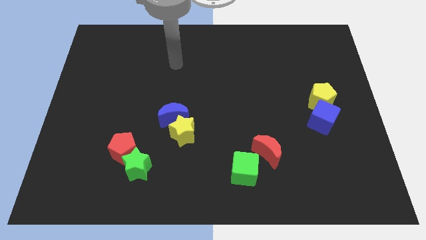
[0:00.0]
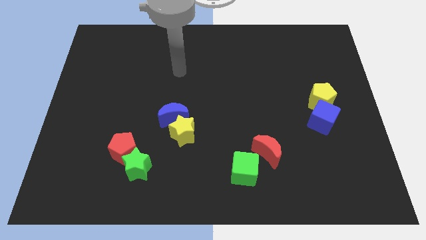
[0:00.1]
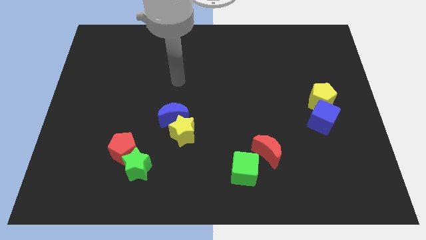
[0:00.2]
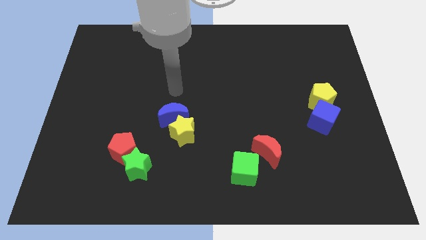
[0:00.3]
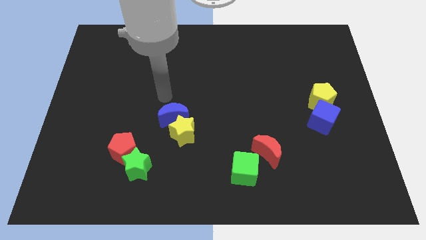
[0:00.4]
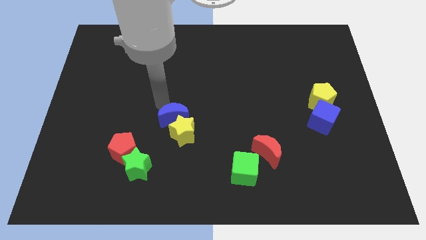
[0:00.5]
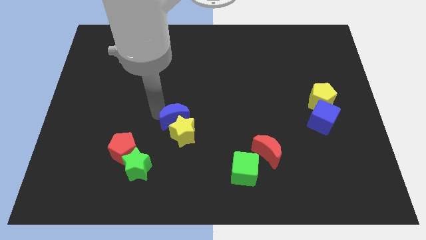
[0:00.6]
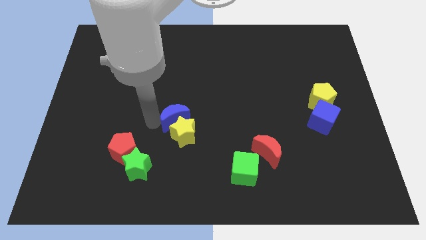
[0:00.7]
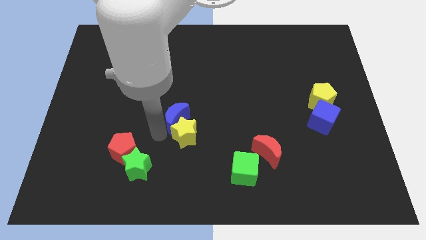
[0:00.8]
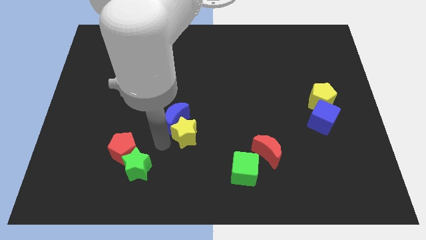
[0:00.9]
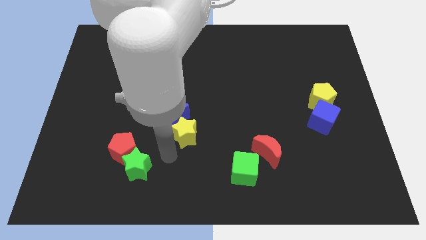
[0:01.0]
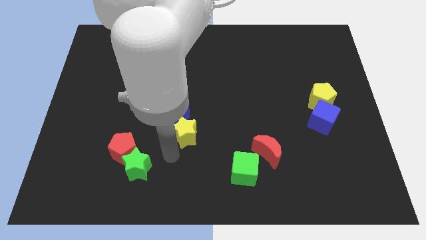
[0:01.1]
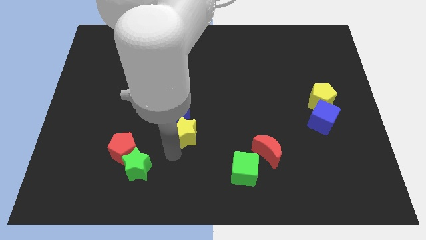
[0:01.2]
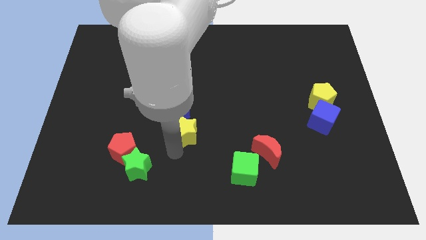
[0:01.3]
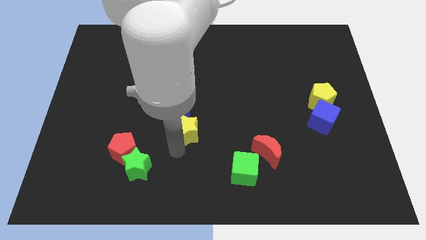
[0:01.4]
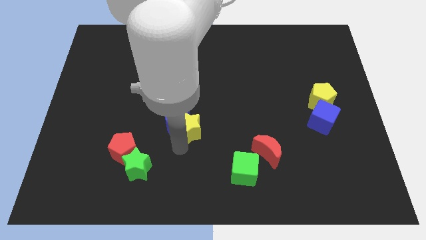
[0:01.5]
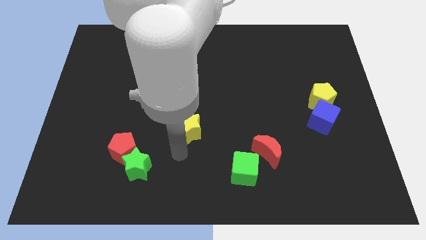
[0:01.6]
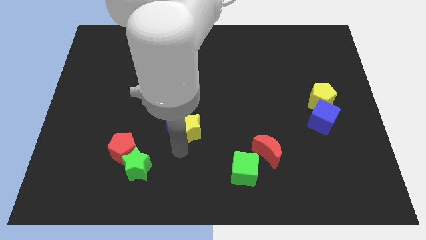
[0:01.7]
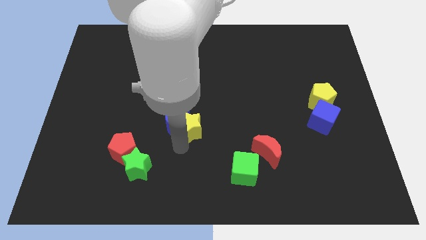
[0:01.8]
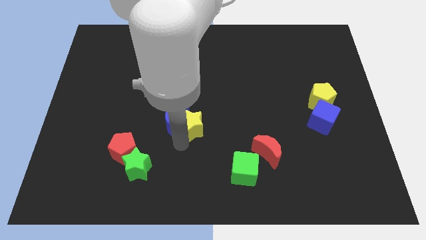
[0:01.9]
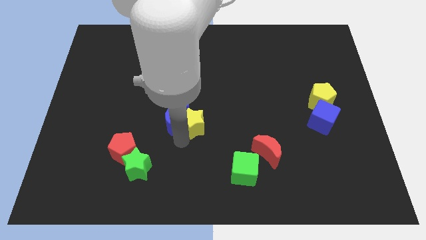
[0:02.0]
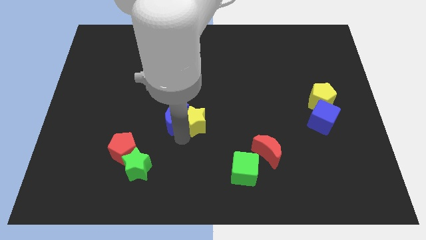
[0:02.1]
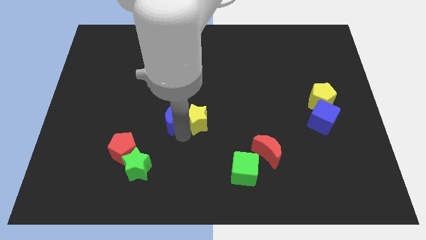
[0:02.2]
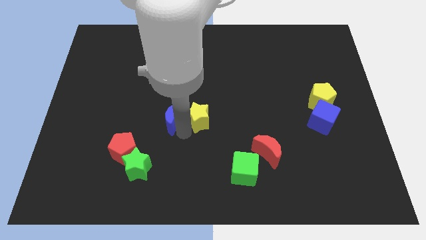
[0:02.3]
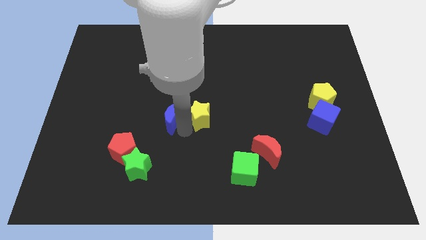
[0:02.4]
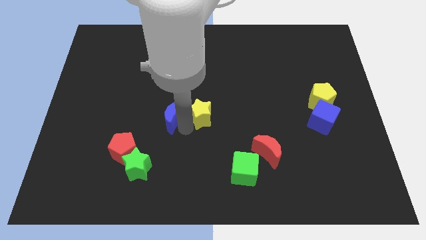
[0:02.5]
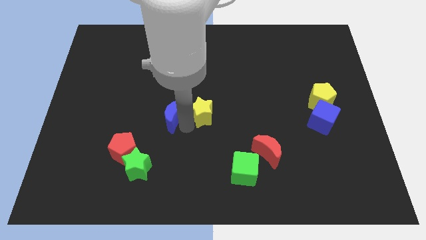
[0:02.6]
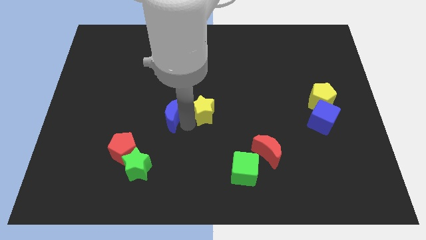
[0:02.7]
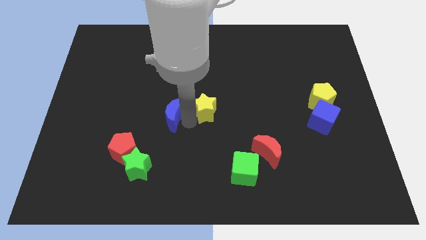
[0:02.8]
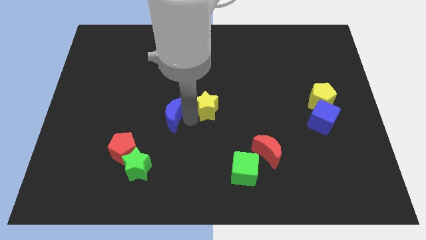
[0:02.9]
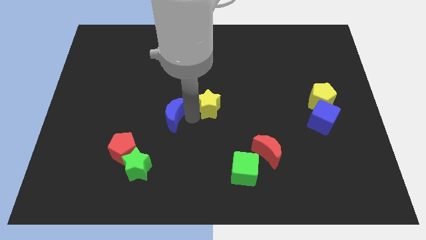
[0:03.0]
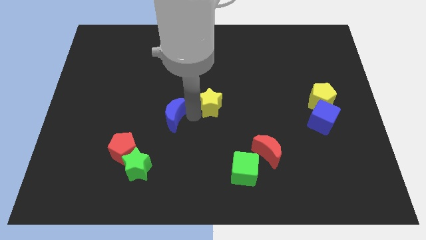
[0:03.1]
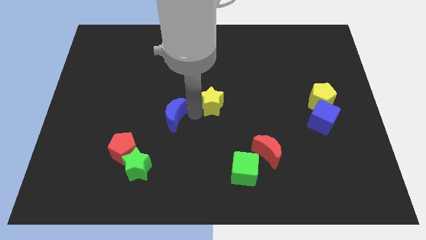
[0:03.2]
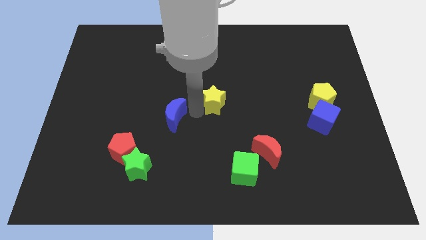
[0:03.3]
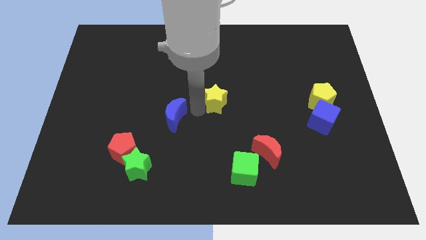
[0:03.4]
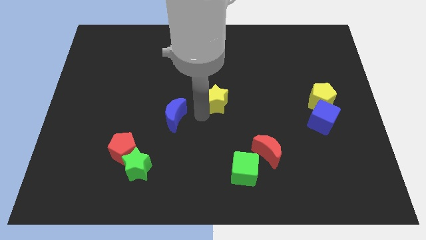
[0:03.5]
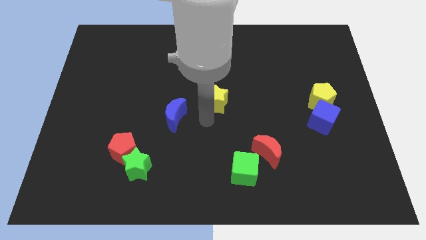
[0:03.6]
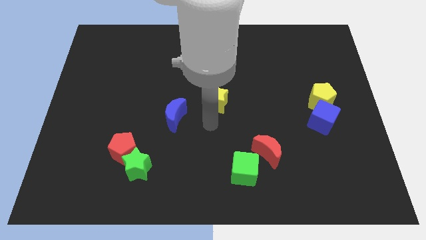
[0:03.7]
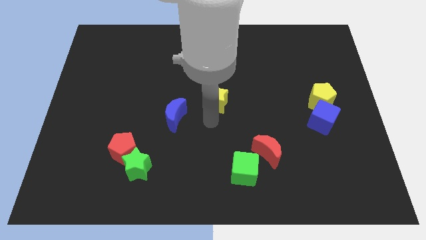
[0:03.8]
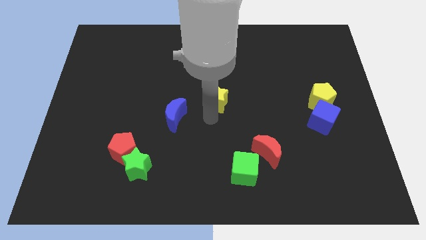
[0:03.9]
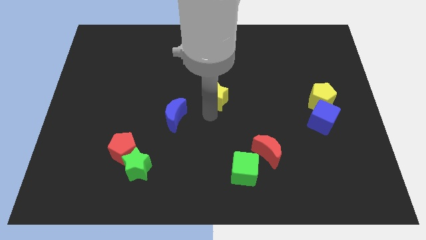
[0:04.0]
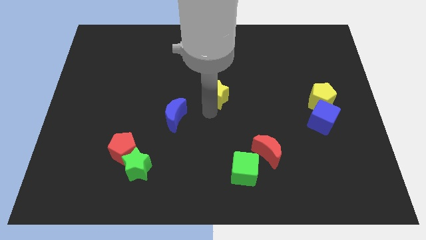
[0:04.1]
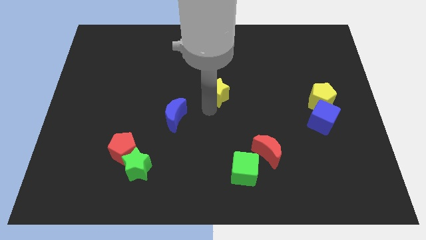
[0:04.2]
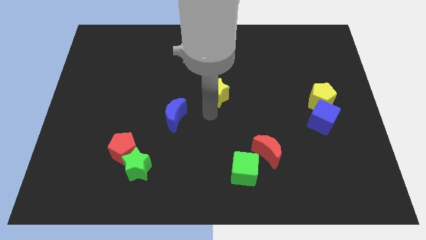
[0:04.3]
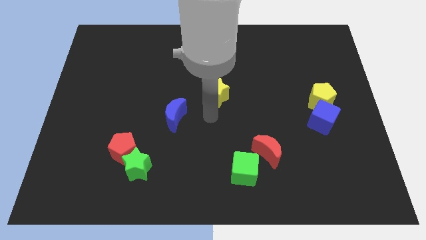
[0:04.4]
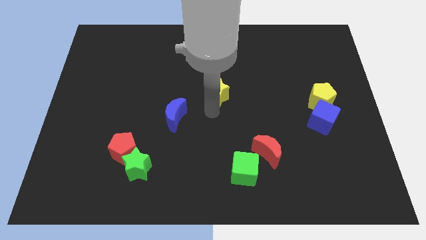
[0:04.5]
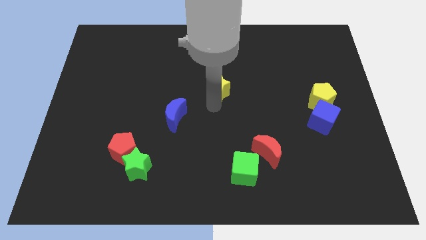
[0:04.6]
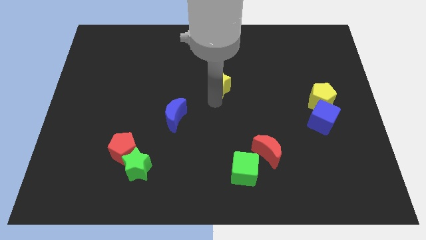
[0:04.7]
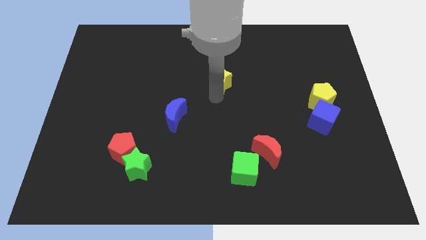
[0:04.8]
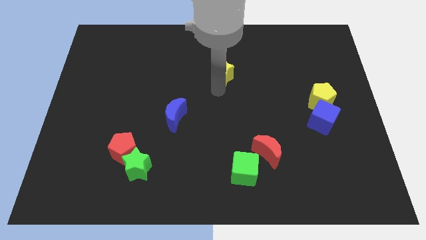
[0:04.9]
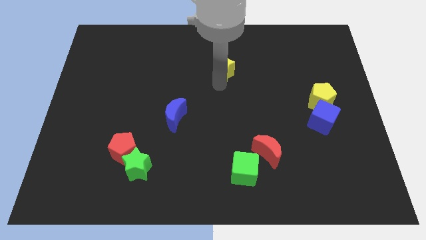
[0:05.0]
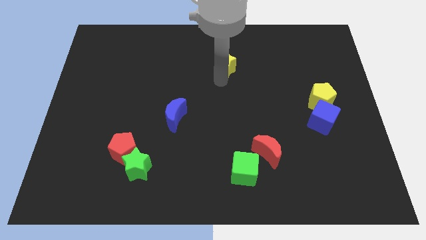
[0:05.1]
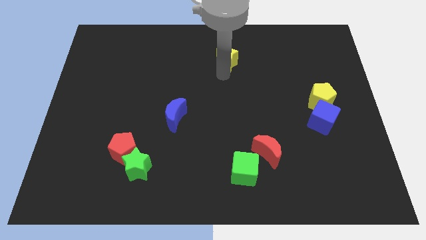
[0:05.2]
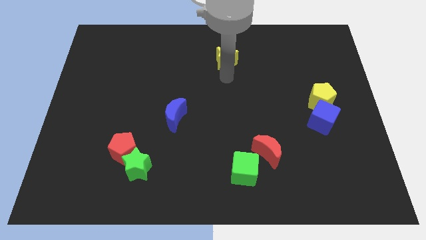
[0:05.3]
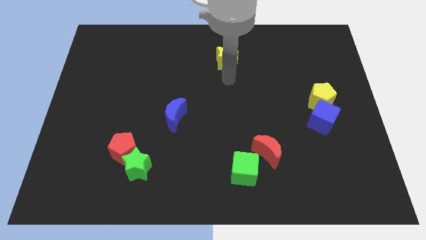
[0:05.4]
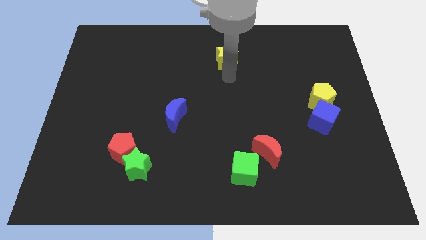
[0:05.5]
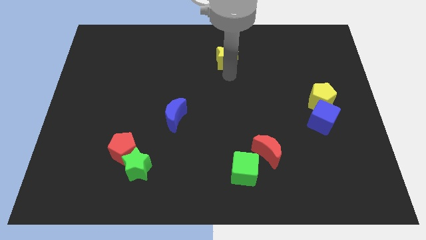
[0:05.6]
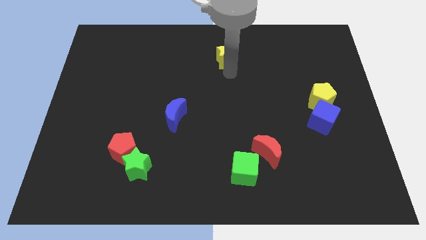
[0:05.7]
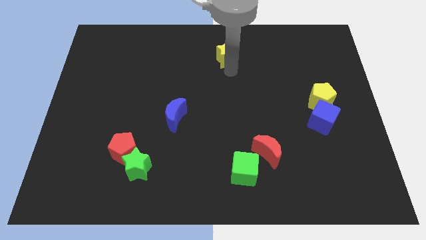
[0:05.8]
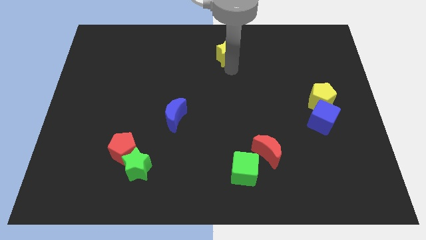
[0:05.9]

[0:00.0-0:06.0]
slide the yellow star to the top

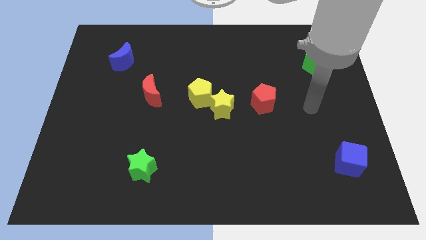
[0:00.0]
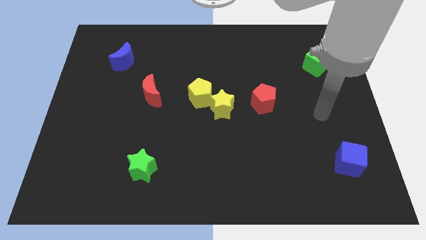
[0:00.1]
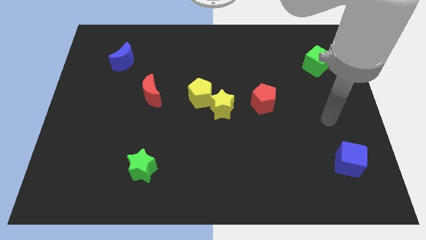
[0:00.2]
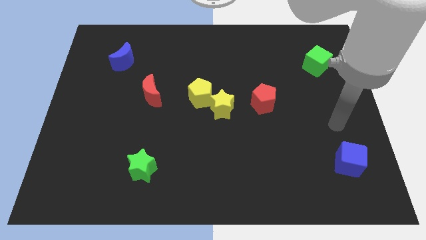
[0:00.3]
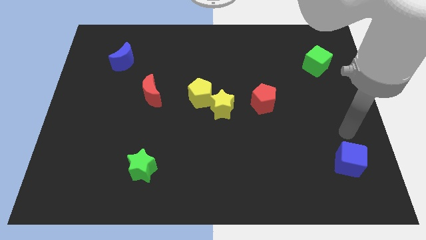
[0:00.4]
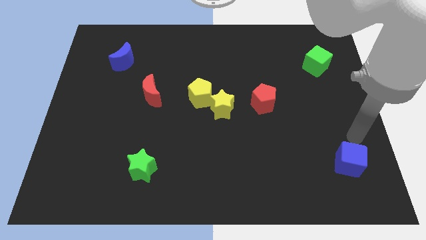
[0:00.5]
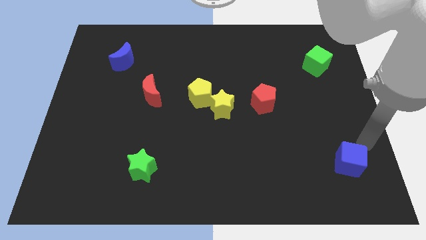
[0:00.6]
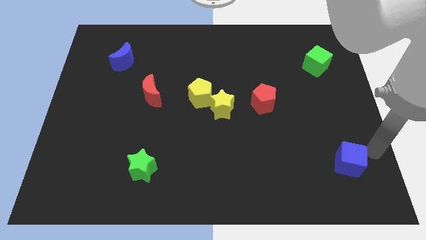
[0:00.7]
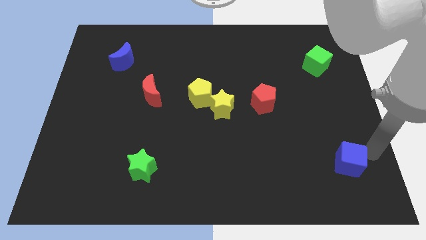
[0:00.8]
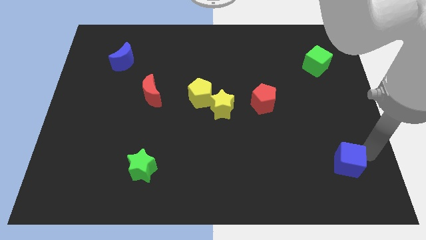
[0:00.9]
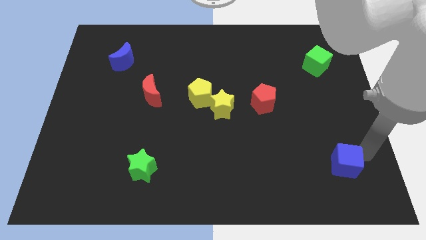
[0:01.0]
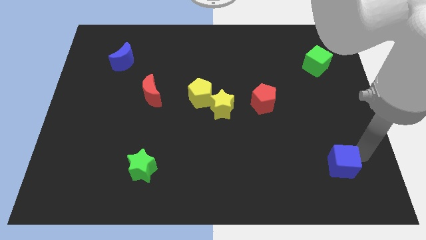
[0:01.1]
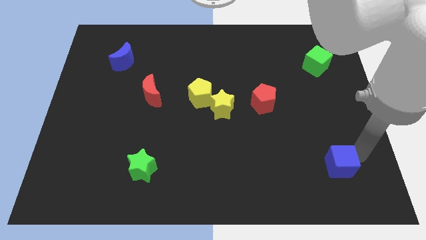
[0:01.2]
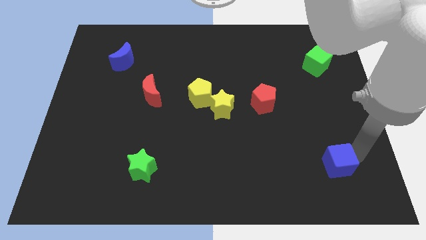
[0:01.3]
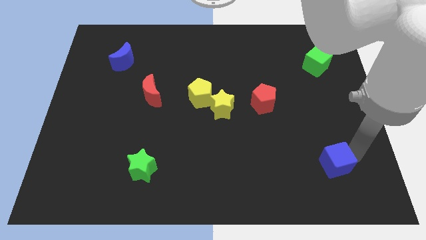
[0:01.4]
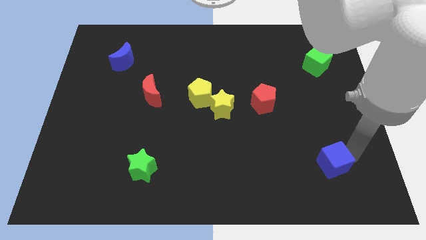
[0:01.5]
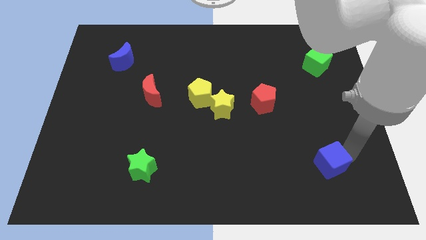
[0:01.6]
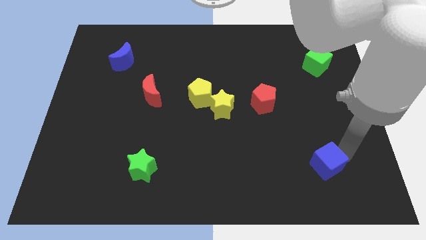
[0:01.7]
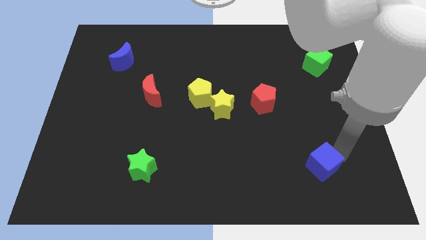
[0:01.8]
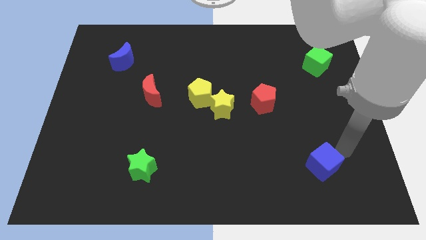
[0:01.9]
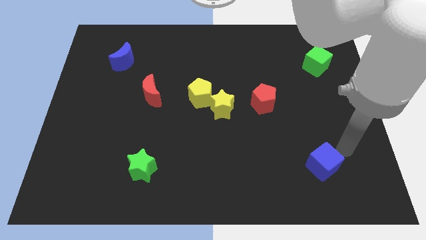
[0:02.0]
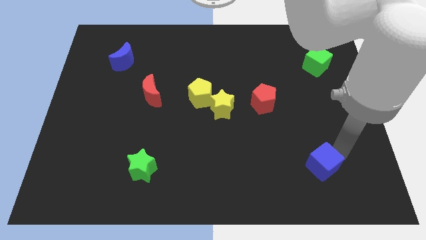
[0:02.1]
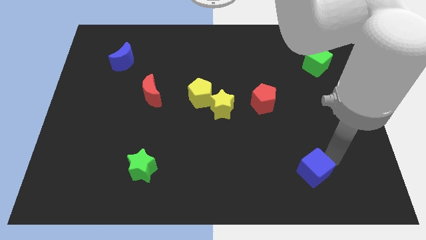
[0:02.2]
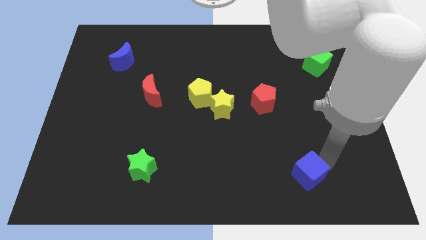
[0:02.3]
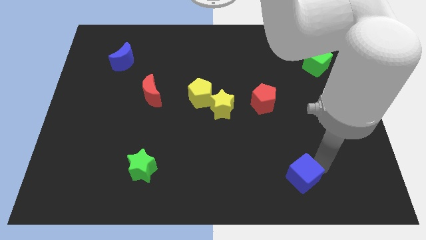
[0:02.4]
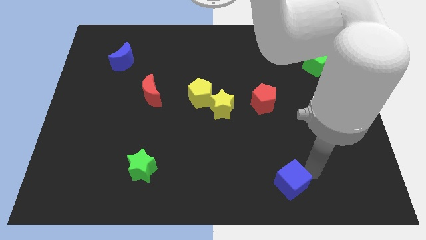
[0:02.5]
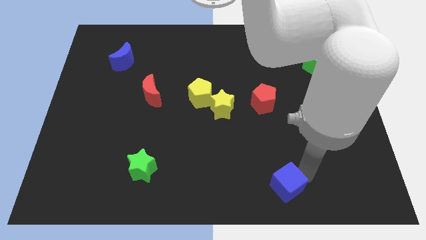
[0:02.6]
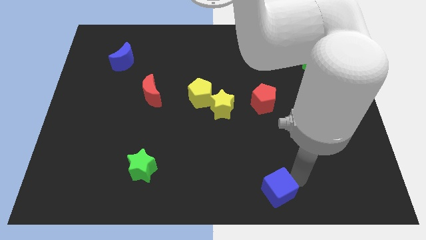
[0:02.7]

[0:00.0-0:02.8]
push the blue cube to the bottom side
